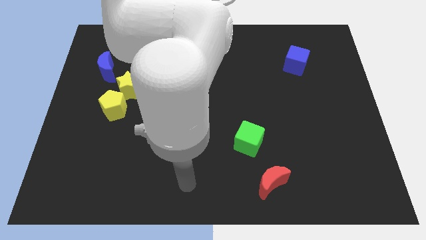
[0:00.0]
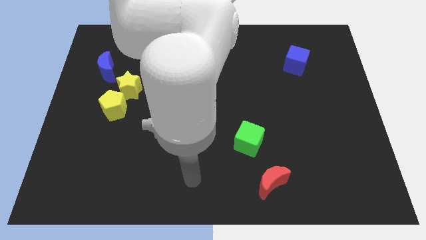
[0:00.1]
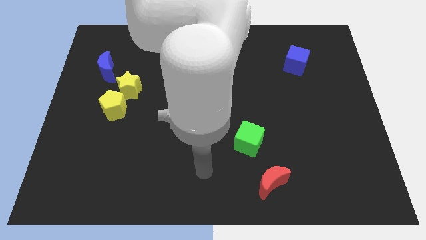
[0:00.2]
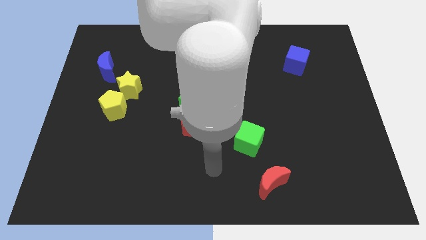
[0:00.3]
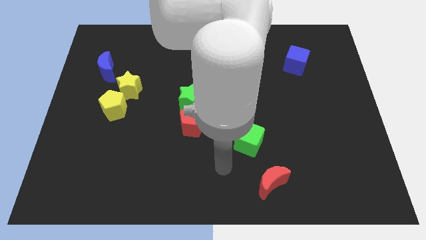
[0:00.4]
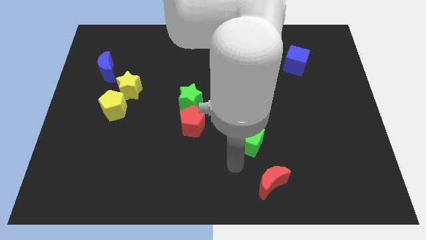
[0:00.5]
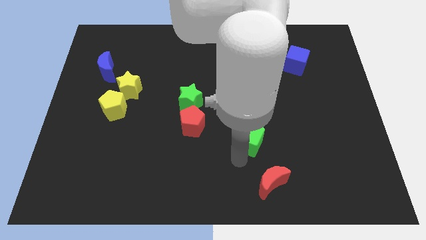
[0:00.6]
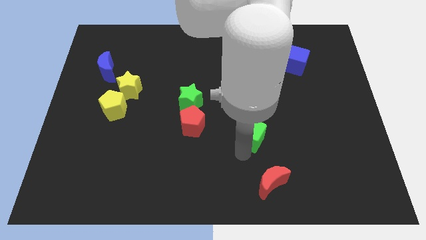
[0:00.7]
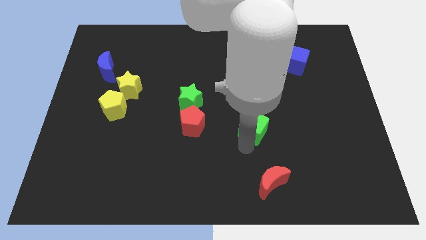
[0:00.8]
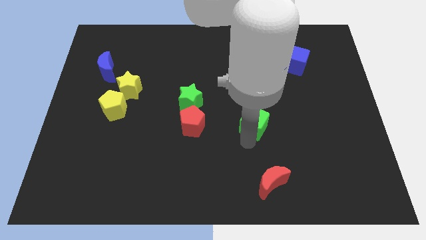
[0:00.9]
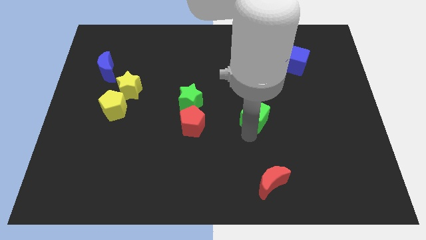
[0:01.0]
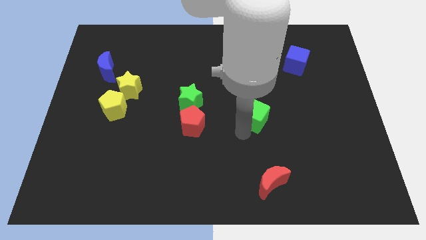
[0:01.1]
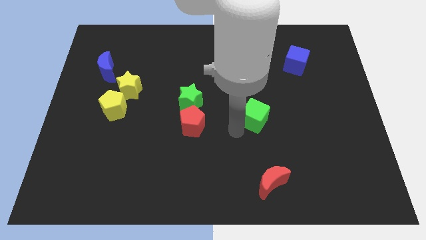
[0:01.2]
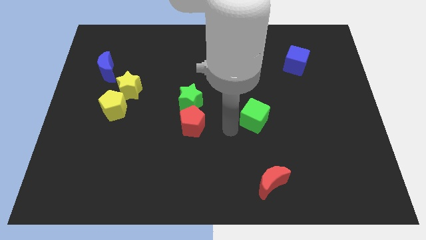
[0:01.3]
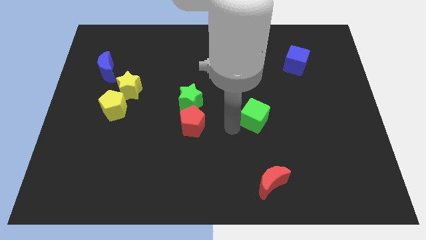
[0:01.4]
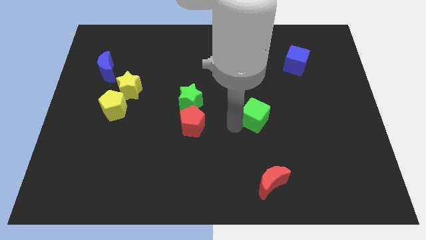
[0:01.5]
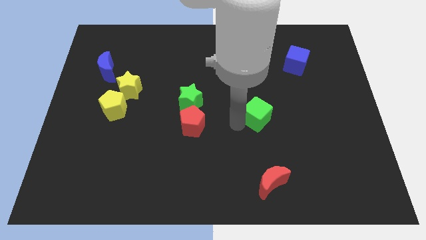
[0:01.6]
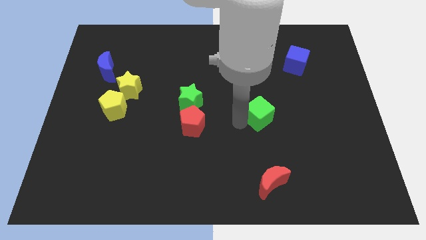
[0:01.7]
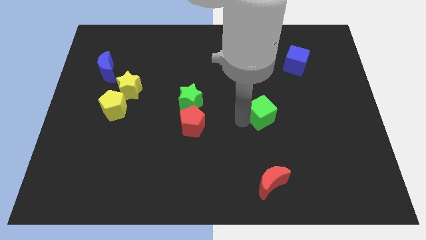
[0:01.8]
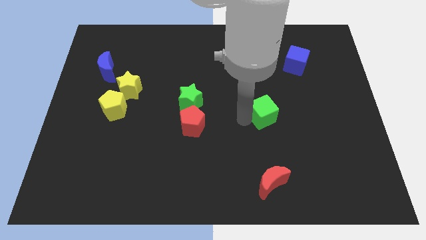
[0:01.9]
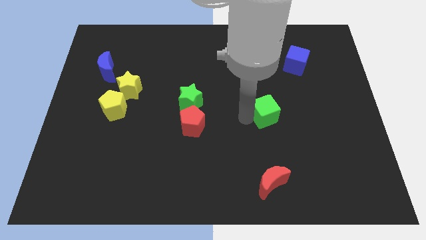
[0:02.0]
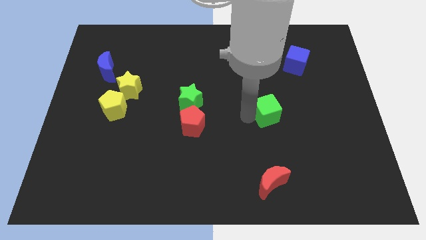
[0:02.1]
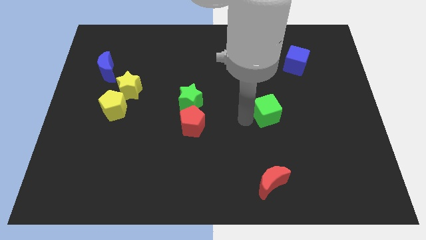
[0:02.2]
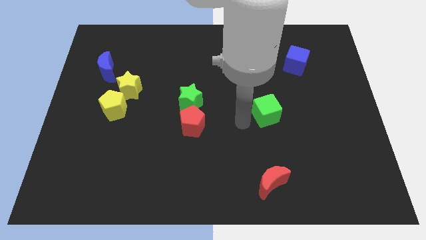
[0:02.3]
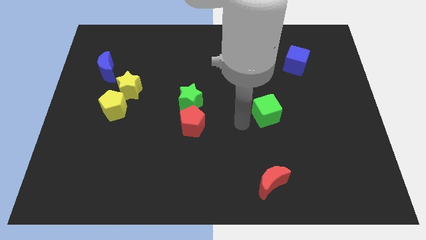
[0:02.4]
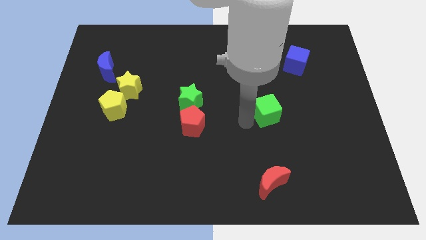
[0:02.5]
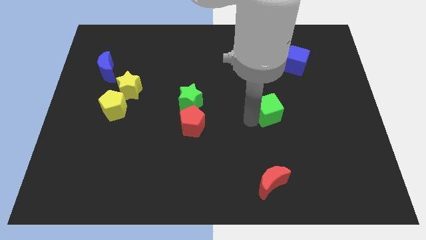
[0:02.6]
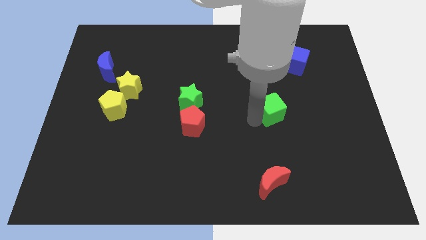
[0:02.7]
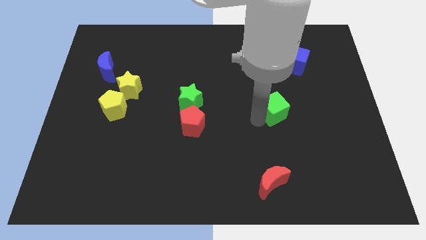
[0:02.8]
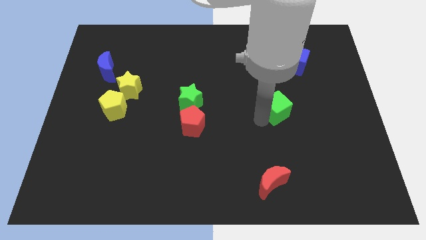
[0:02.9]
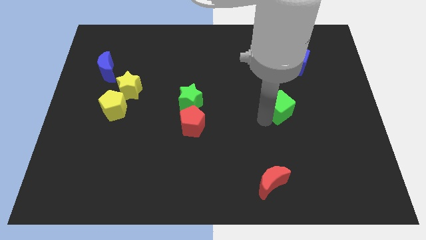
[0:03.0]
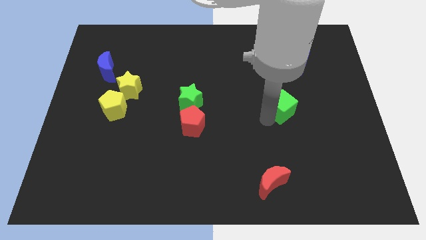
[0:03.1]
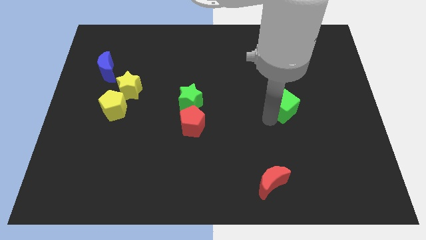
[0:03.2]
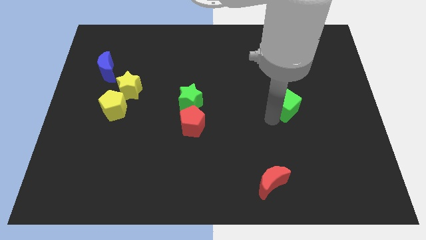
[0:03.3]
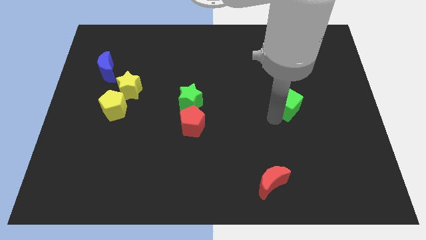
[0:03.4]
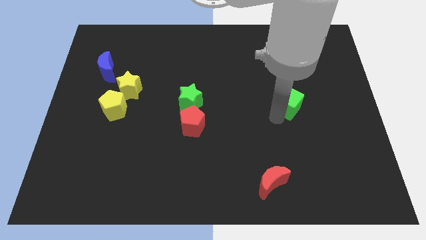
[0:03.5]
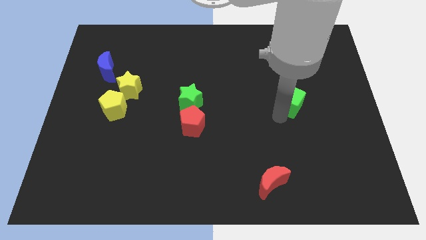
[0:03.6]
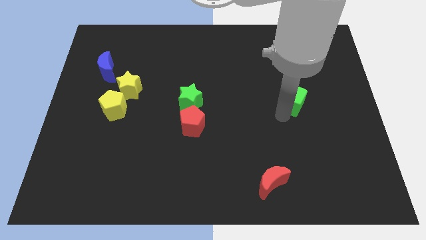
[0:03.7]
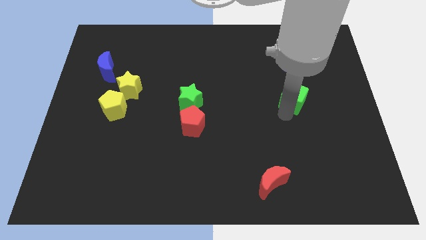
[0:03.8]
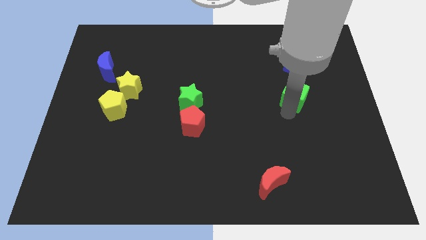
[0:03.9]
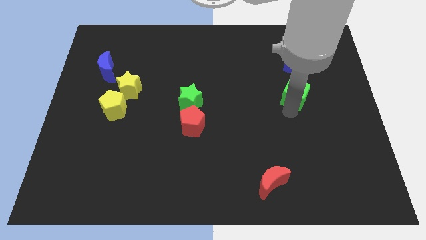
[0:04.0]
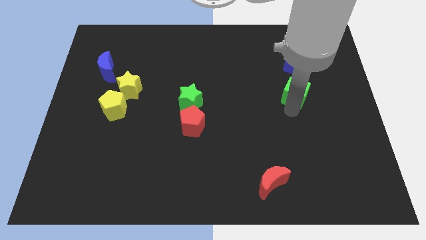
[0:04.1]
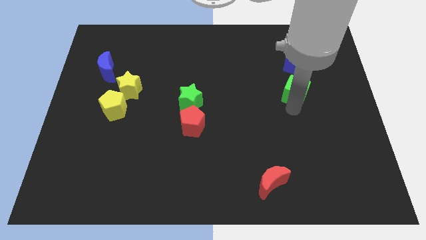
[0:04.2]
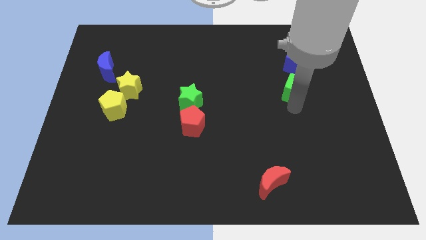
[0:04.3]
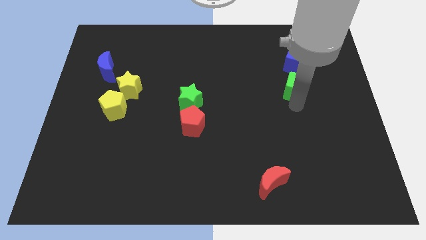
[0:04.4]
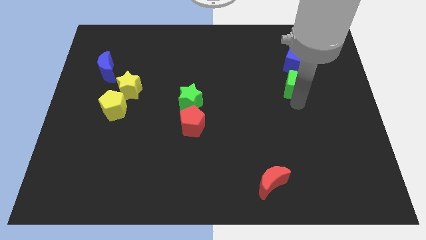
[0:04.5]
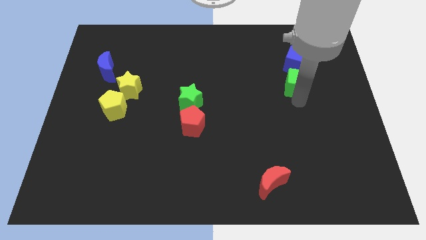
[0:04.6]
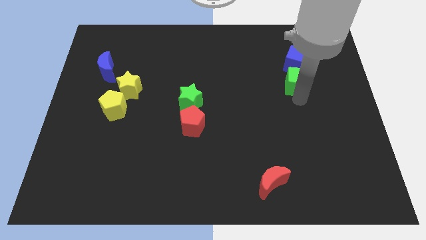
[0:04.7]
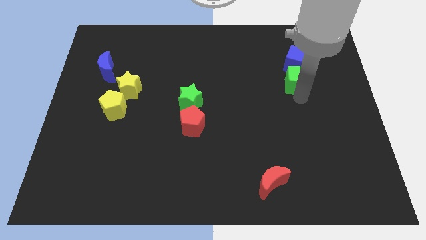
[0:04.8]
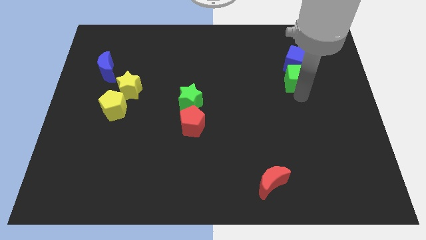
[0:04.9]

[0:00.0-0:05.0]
put the green cube towards the blue cube

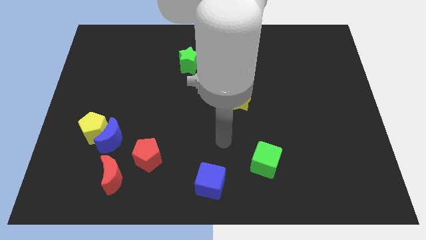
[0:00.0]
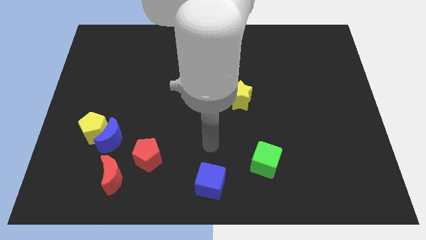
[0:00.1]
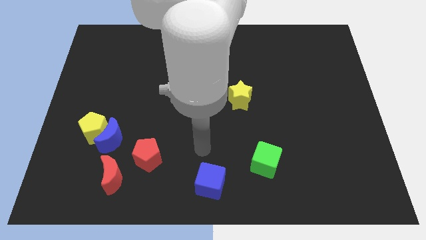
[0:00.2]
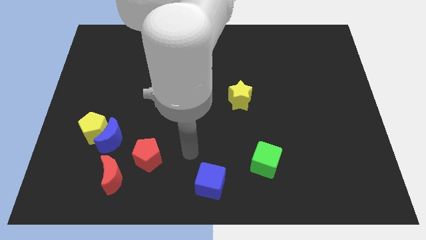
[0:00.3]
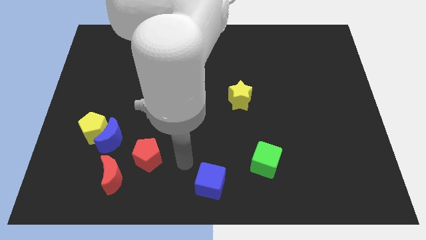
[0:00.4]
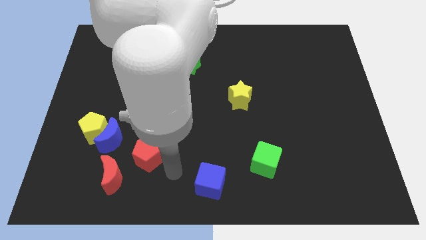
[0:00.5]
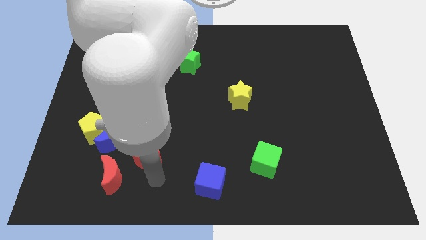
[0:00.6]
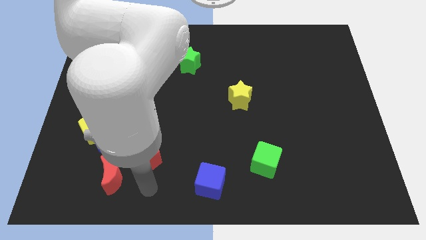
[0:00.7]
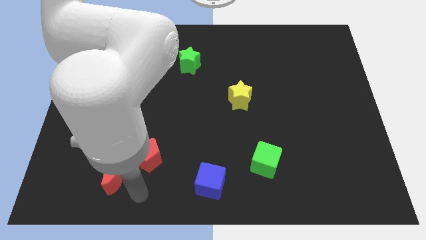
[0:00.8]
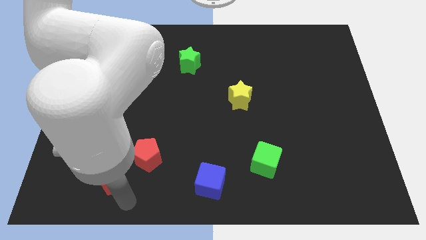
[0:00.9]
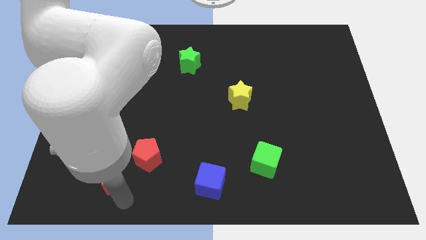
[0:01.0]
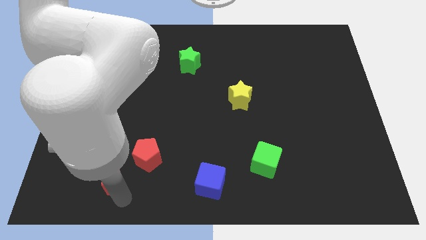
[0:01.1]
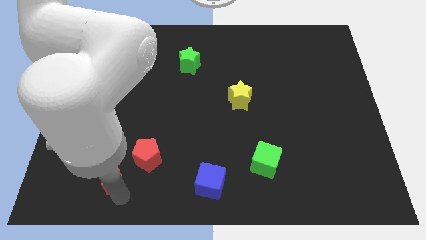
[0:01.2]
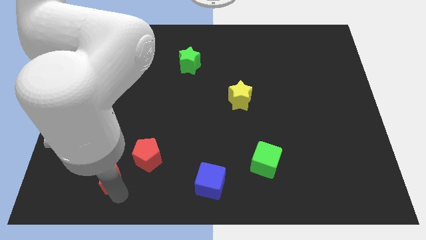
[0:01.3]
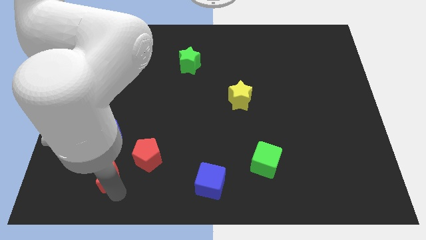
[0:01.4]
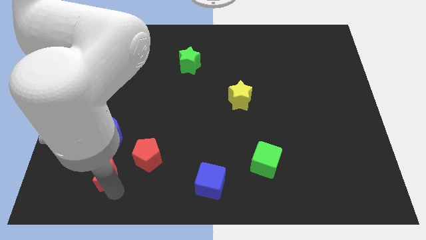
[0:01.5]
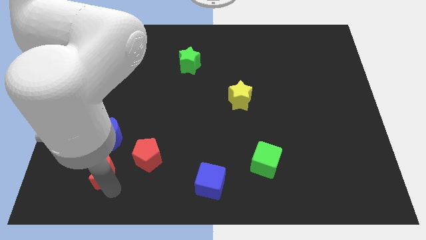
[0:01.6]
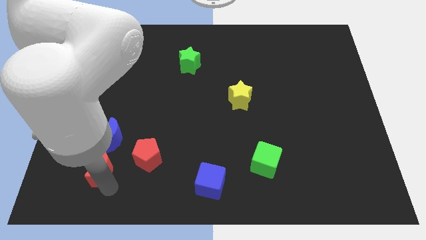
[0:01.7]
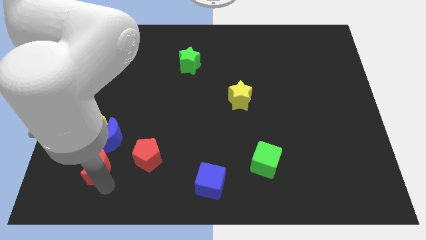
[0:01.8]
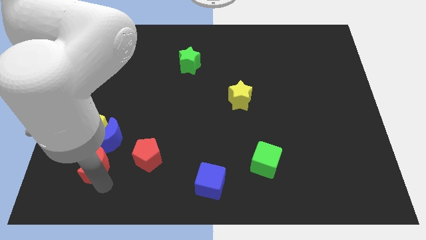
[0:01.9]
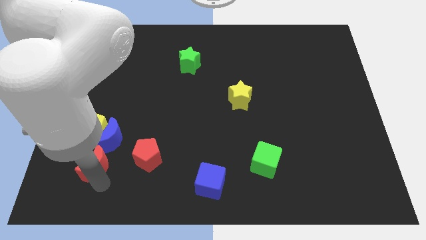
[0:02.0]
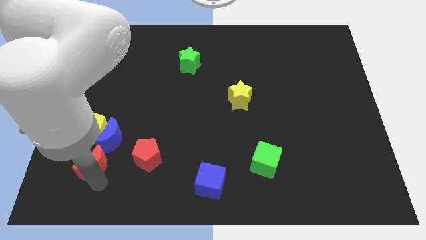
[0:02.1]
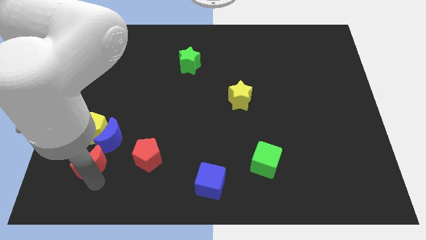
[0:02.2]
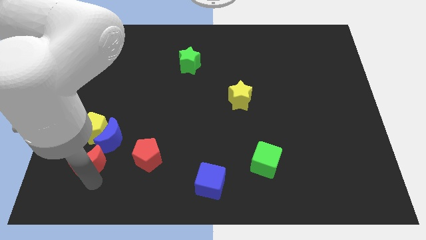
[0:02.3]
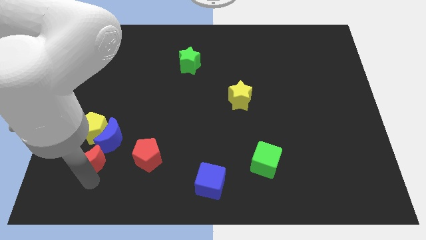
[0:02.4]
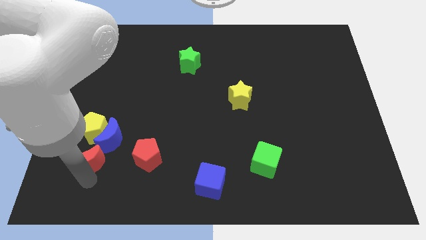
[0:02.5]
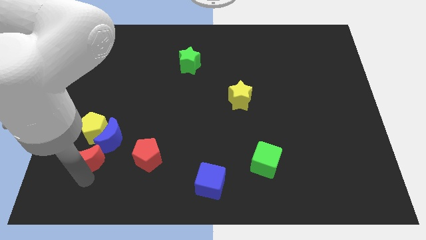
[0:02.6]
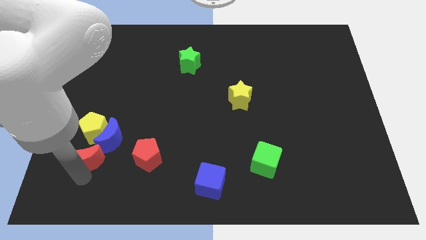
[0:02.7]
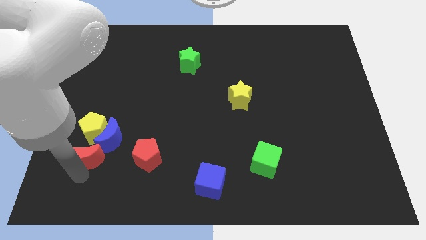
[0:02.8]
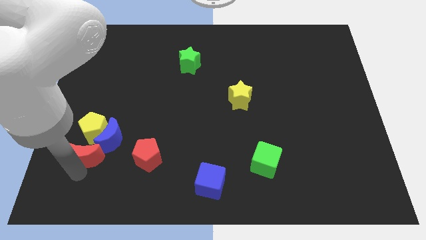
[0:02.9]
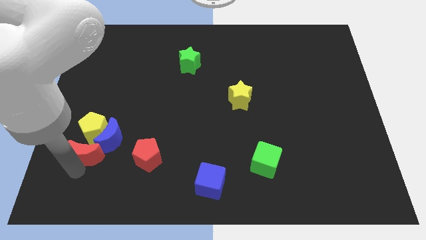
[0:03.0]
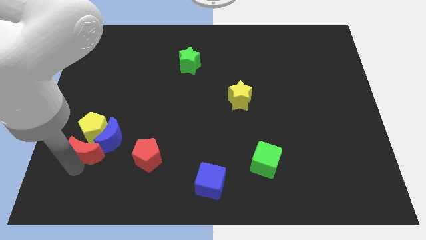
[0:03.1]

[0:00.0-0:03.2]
push the red moon to the yellow pentagon
